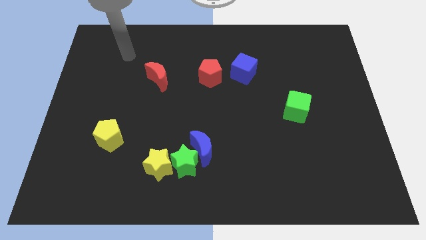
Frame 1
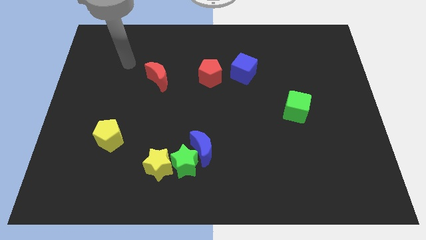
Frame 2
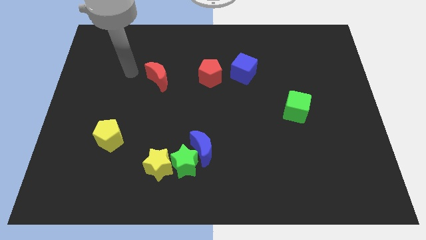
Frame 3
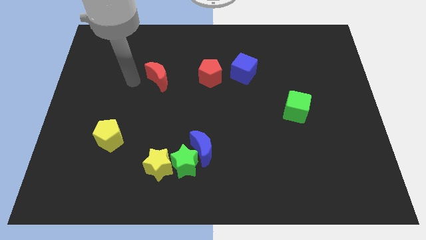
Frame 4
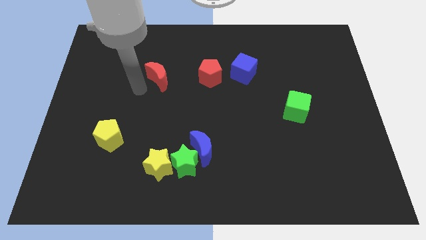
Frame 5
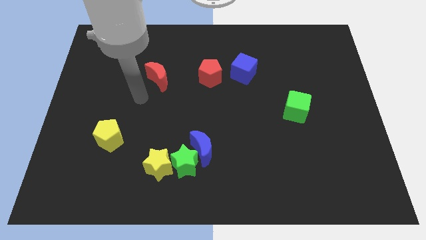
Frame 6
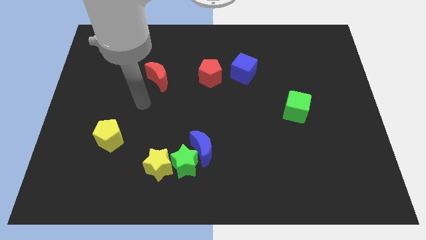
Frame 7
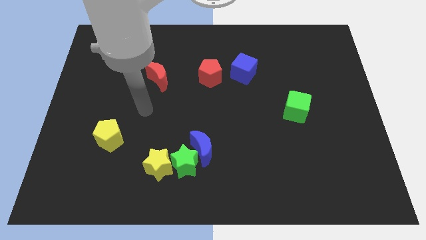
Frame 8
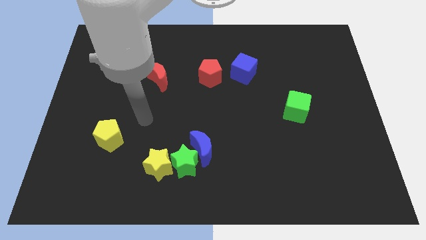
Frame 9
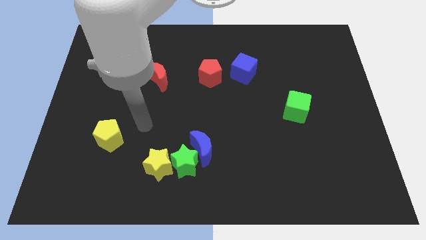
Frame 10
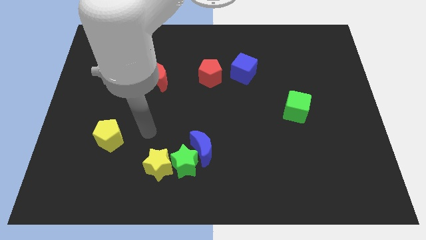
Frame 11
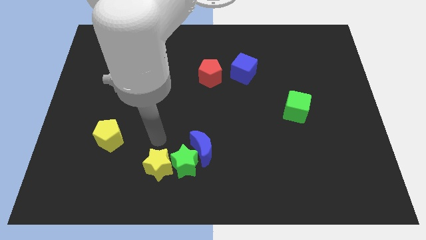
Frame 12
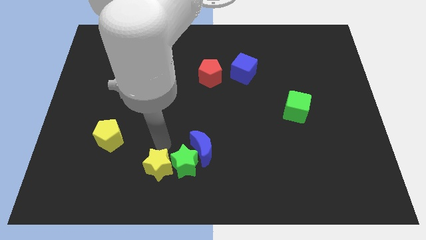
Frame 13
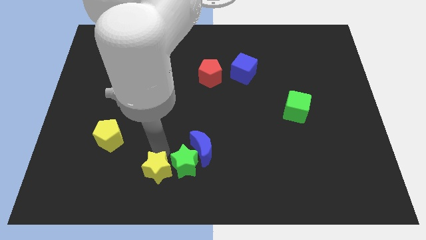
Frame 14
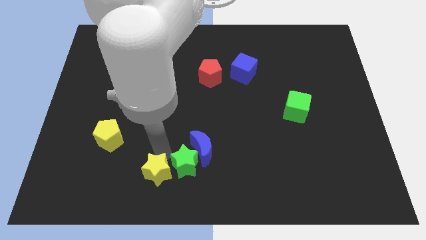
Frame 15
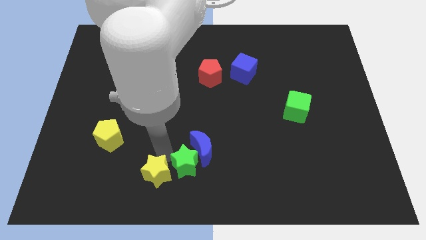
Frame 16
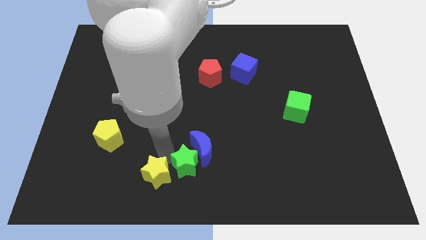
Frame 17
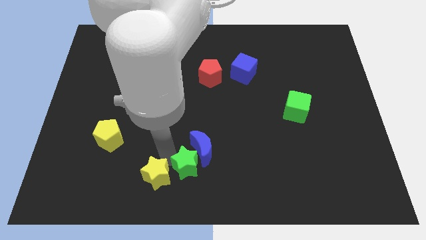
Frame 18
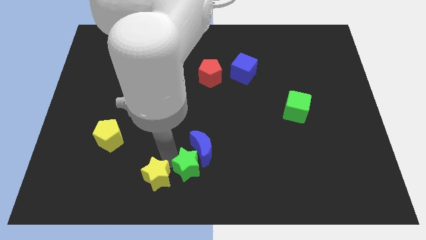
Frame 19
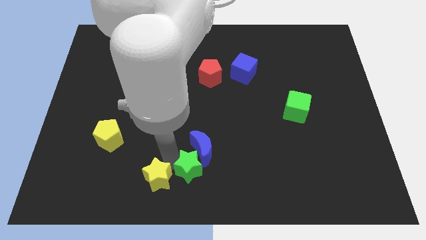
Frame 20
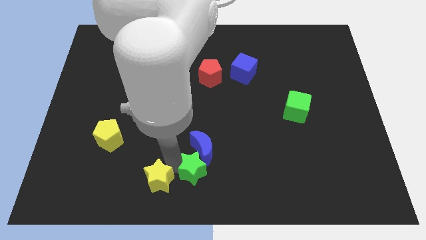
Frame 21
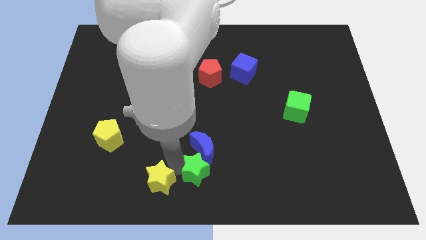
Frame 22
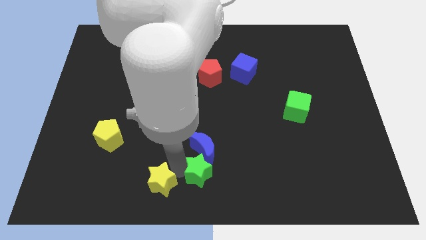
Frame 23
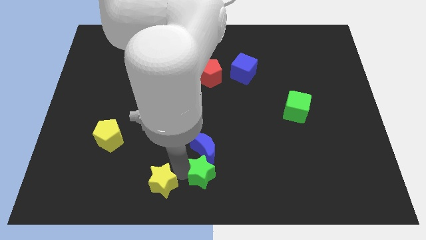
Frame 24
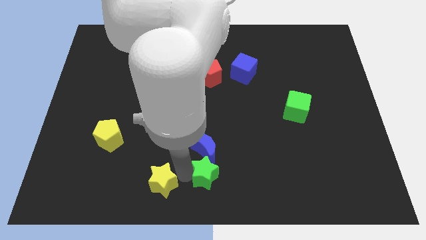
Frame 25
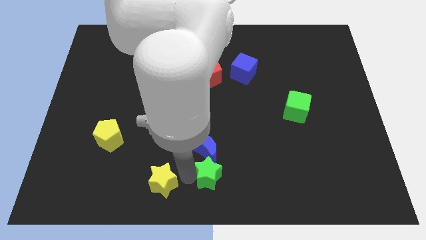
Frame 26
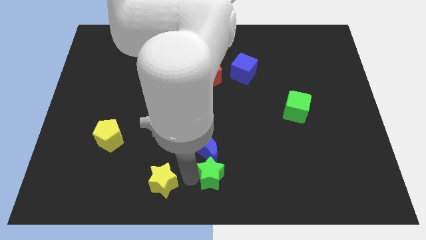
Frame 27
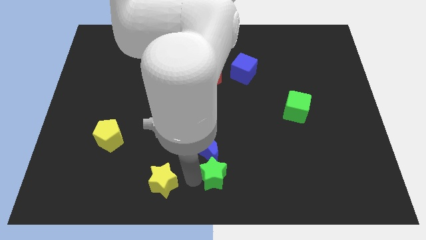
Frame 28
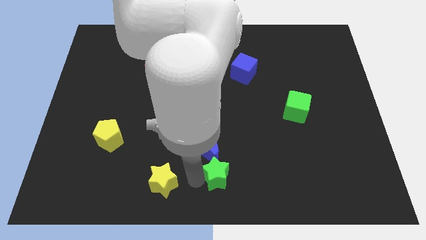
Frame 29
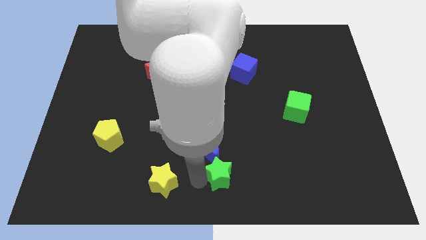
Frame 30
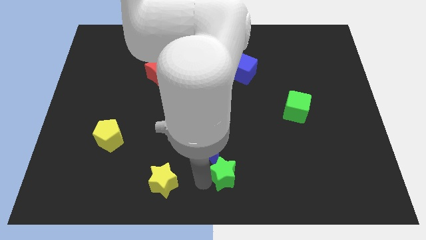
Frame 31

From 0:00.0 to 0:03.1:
push the green star a little right

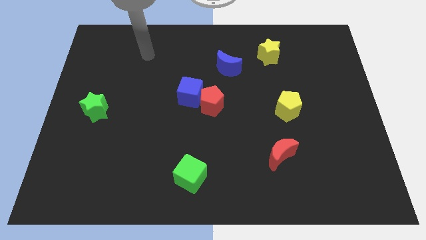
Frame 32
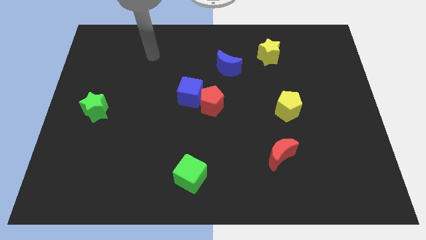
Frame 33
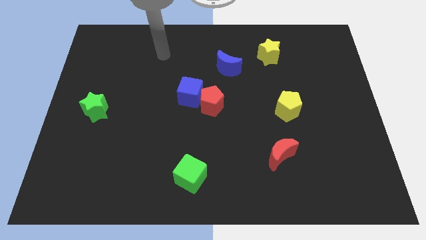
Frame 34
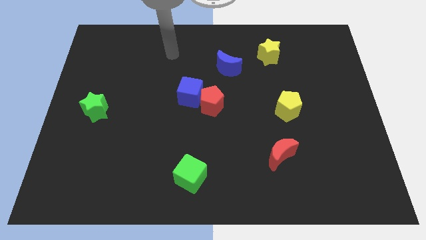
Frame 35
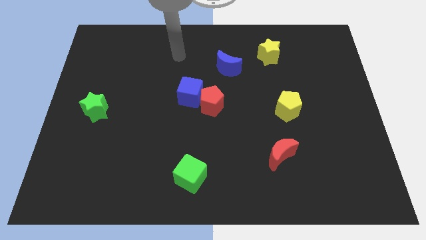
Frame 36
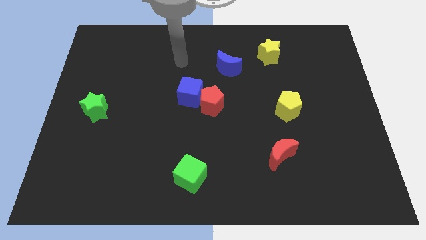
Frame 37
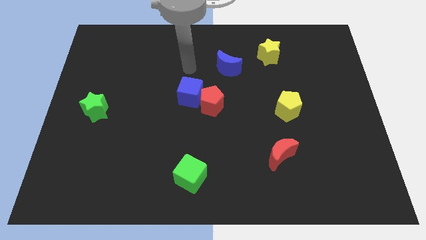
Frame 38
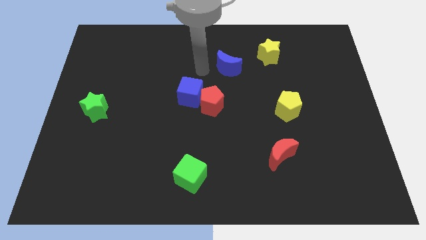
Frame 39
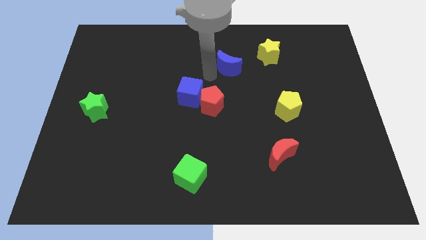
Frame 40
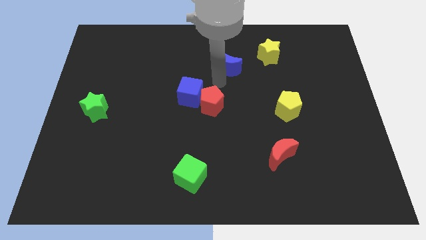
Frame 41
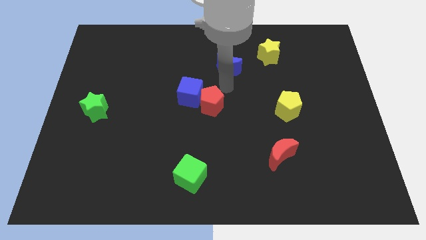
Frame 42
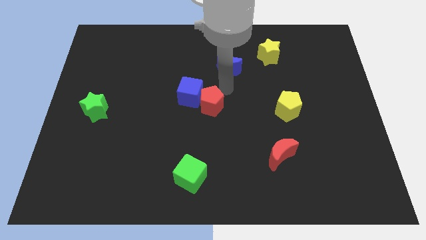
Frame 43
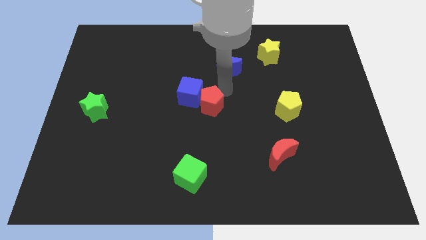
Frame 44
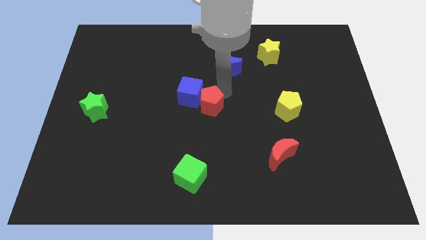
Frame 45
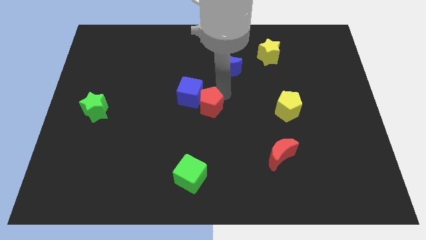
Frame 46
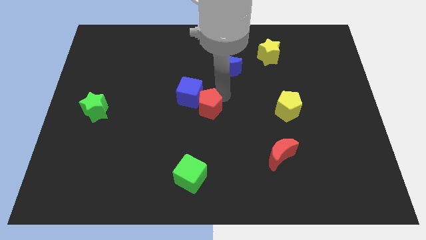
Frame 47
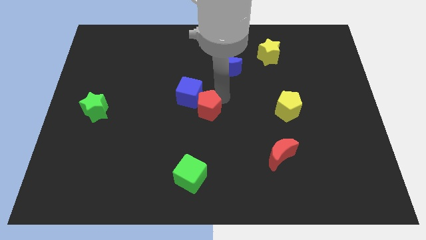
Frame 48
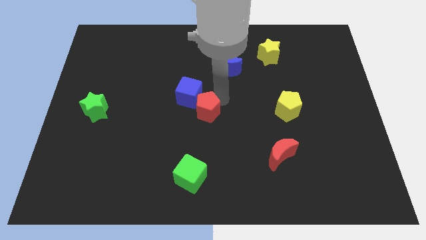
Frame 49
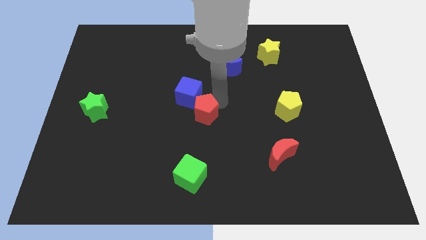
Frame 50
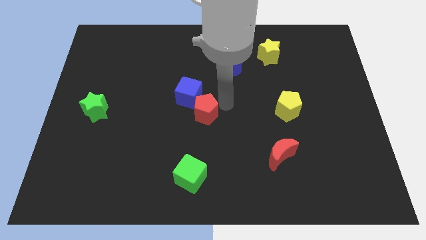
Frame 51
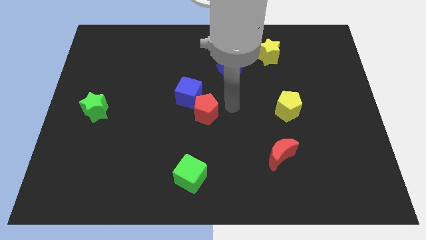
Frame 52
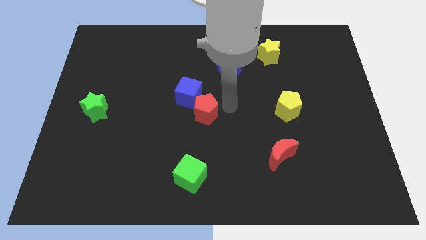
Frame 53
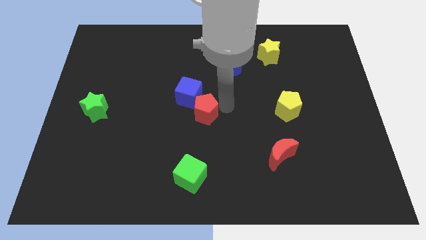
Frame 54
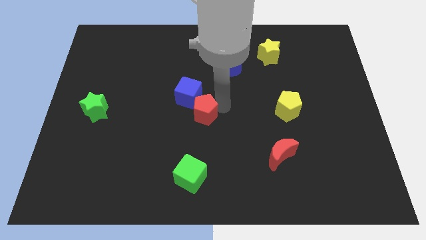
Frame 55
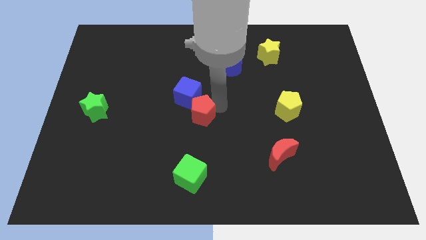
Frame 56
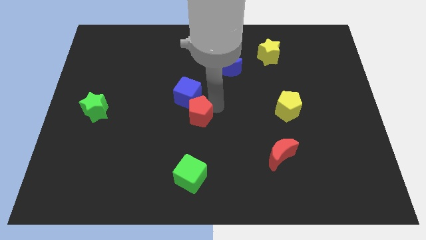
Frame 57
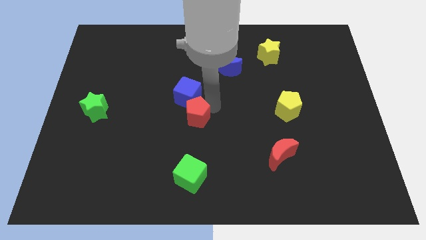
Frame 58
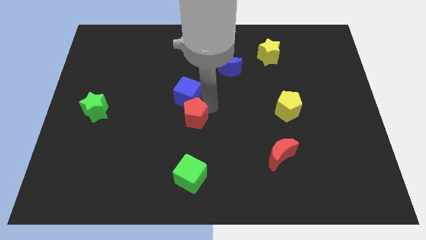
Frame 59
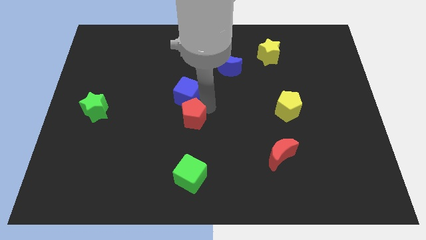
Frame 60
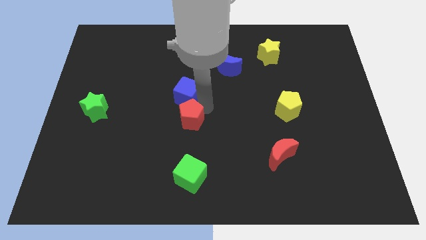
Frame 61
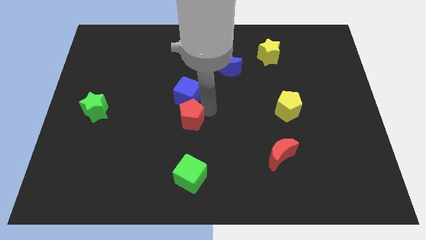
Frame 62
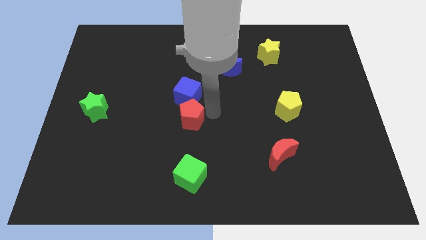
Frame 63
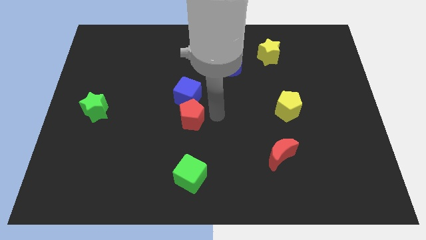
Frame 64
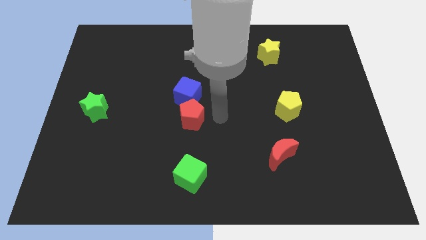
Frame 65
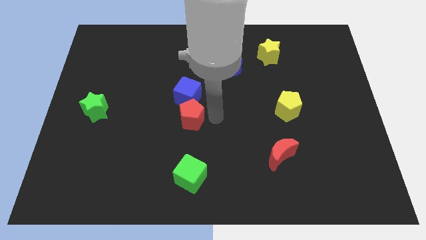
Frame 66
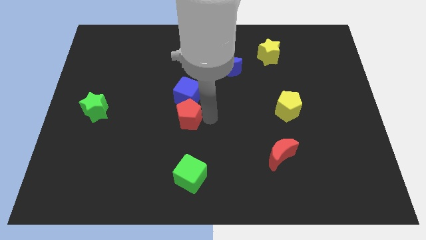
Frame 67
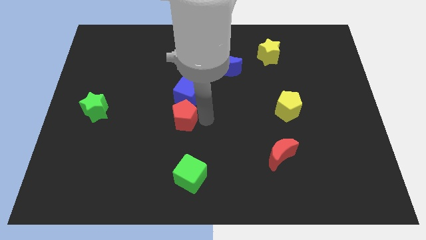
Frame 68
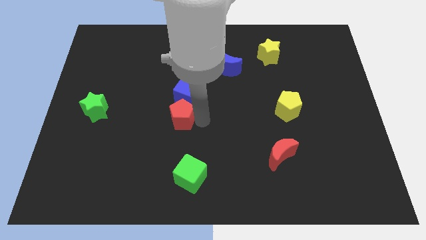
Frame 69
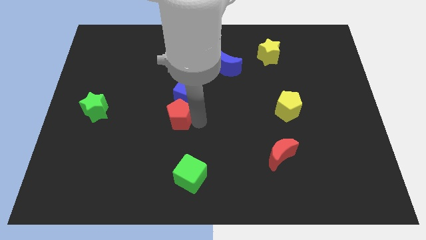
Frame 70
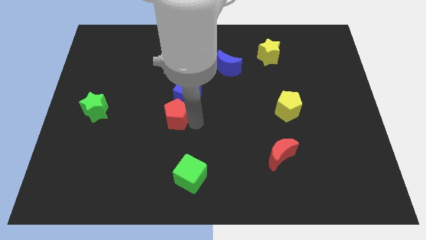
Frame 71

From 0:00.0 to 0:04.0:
push the red pentagon left slightly

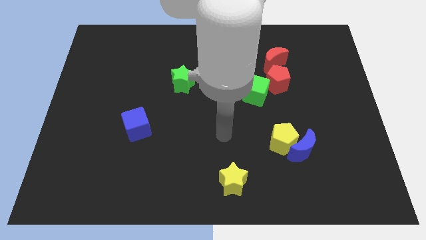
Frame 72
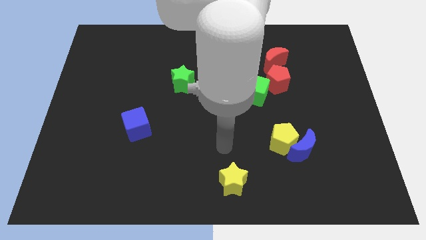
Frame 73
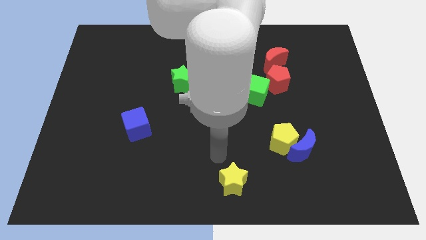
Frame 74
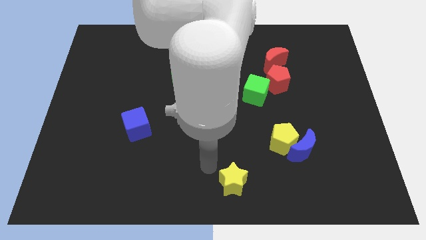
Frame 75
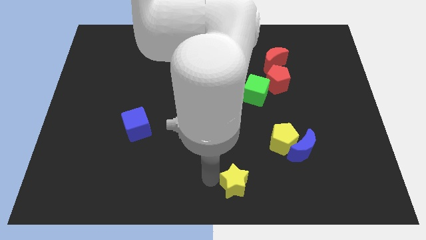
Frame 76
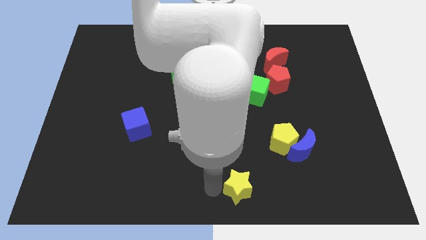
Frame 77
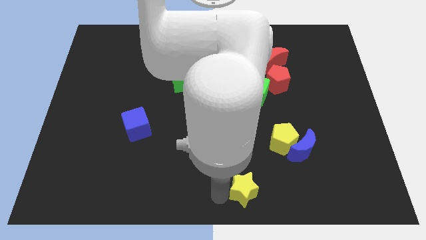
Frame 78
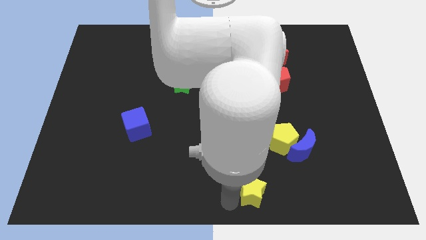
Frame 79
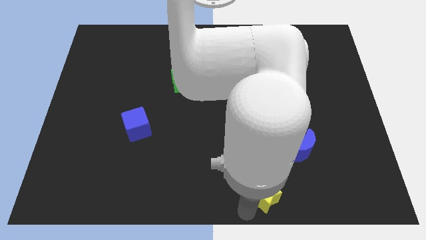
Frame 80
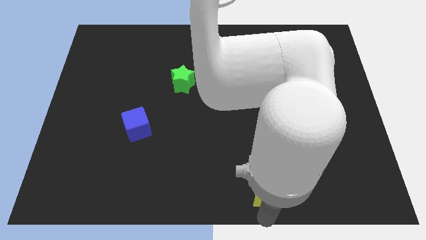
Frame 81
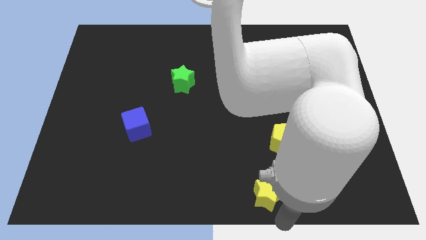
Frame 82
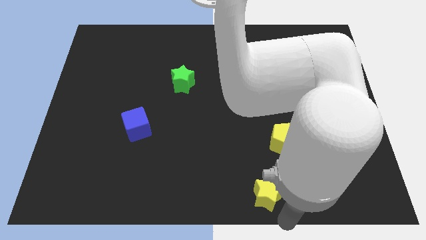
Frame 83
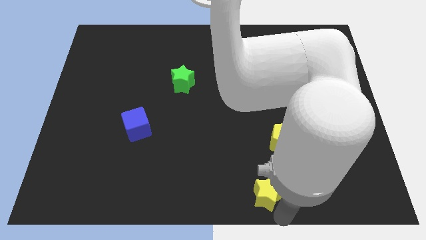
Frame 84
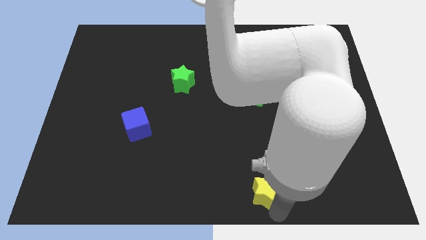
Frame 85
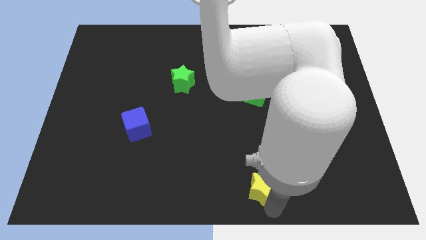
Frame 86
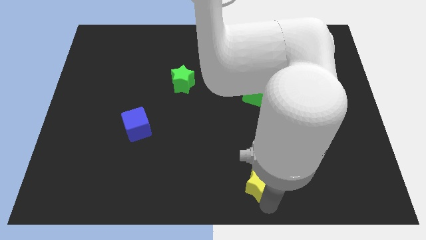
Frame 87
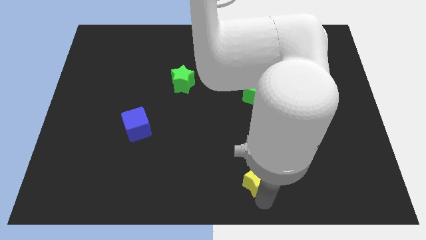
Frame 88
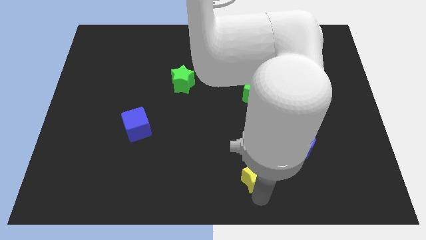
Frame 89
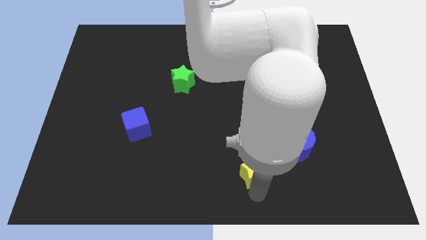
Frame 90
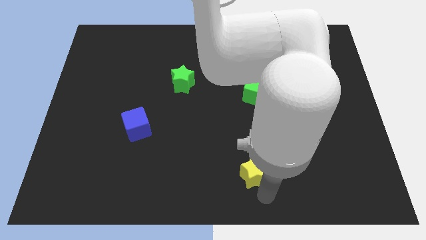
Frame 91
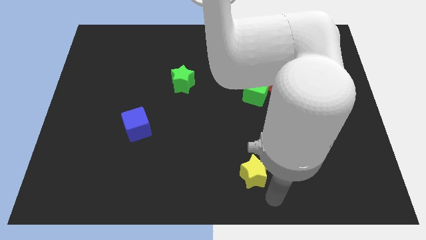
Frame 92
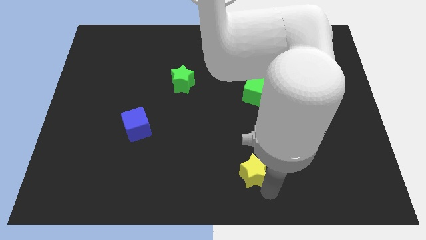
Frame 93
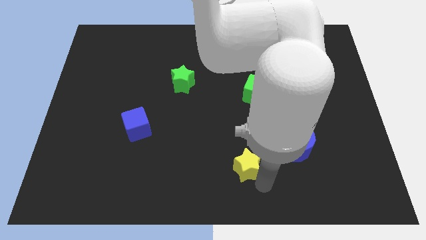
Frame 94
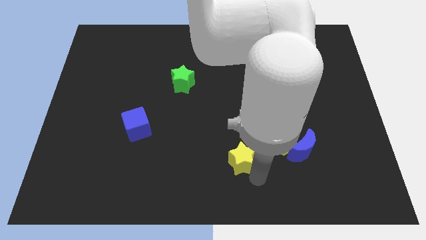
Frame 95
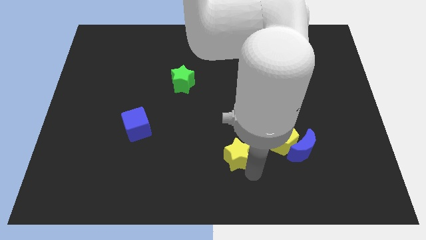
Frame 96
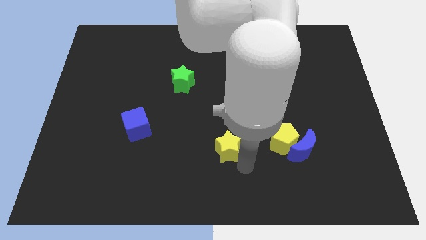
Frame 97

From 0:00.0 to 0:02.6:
slightly push the yellow star upwards
